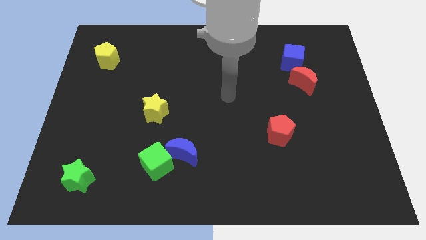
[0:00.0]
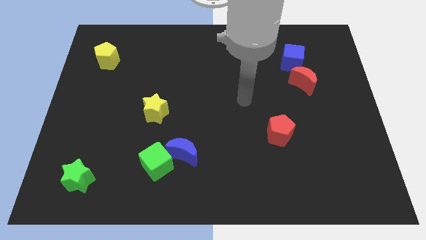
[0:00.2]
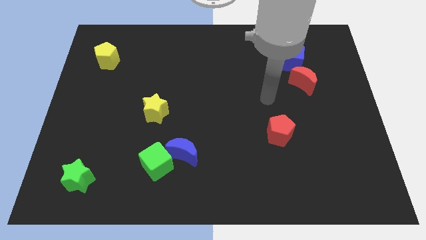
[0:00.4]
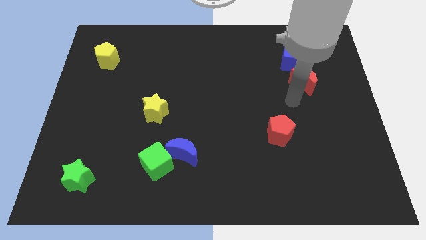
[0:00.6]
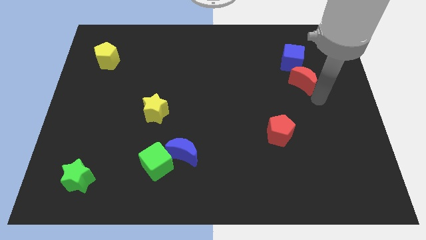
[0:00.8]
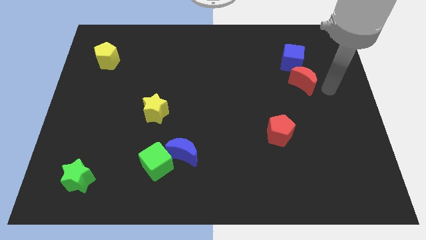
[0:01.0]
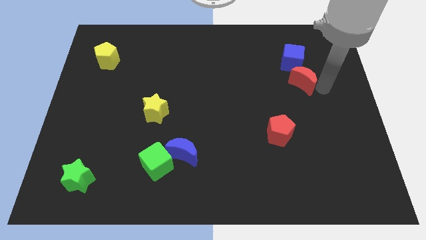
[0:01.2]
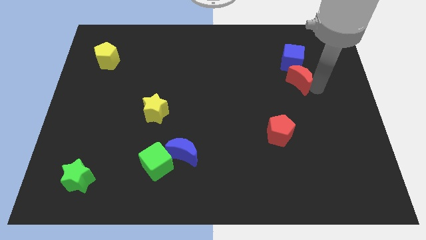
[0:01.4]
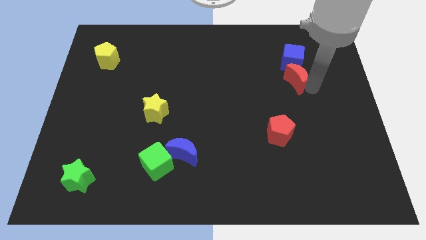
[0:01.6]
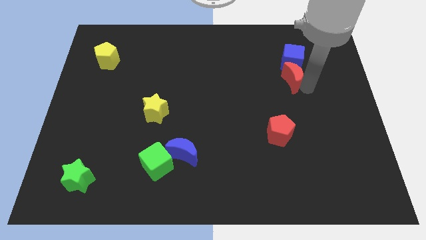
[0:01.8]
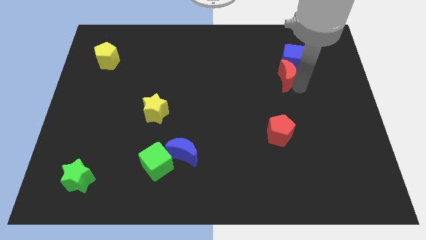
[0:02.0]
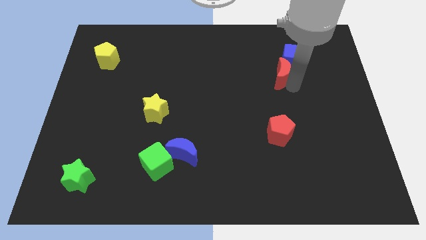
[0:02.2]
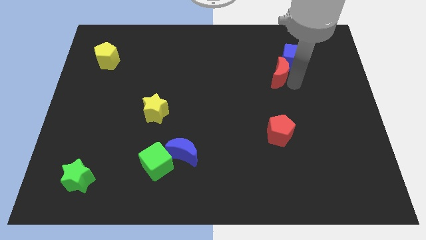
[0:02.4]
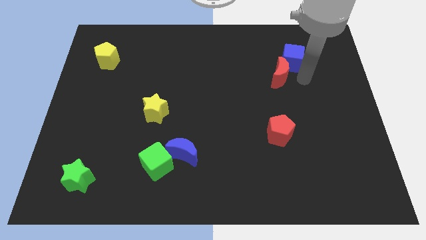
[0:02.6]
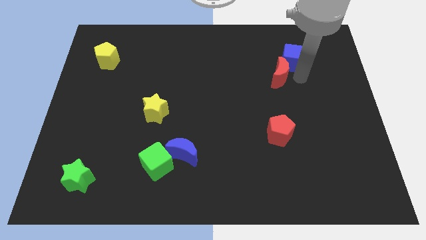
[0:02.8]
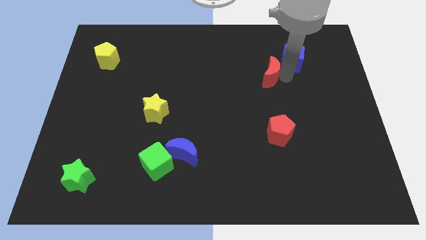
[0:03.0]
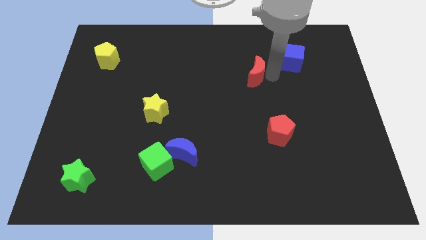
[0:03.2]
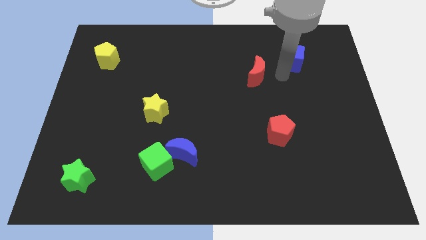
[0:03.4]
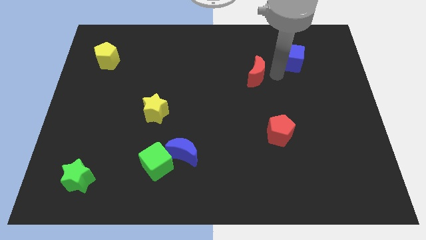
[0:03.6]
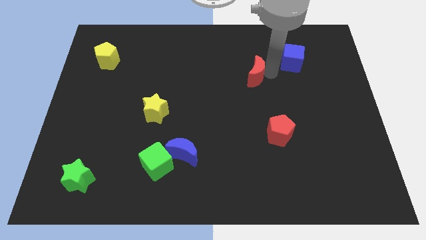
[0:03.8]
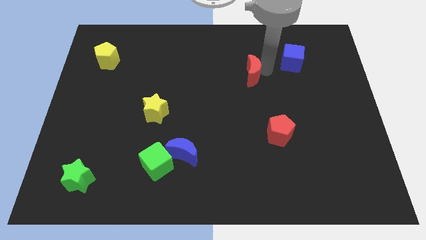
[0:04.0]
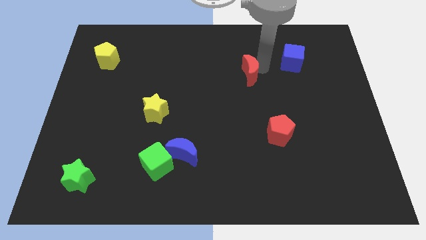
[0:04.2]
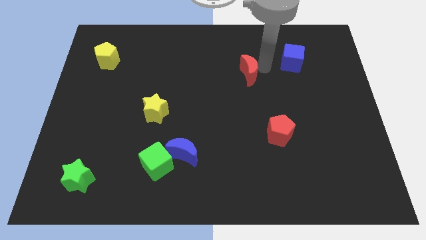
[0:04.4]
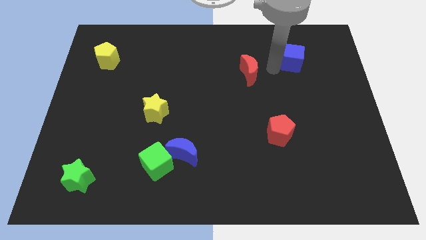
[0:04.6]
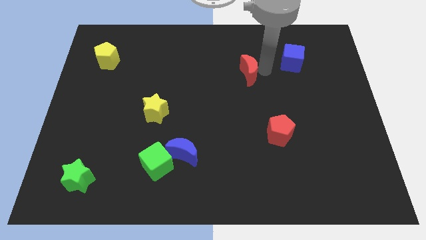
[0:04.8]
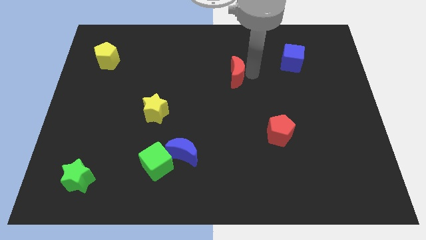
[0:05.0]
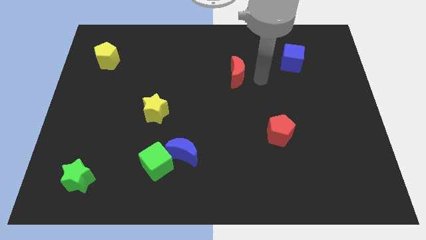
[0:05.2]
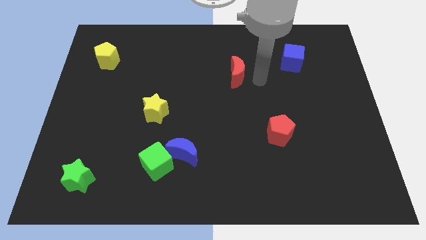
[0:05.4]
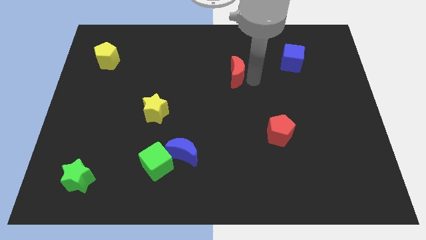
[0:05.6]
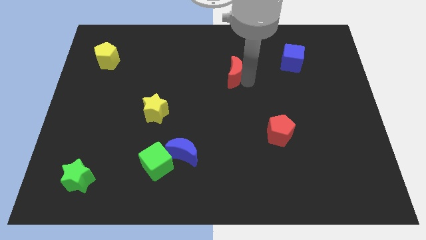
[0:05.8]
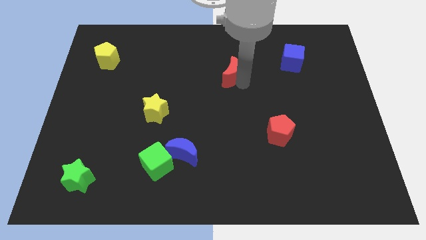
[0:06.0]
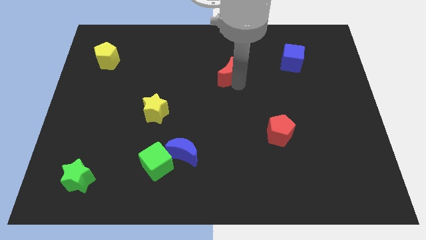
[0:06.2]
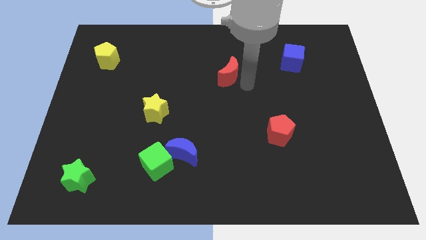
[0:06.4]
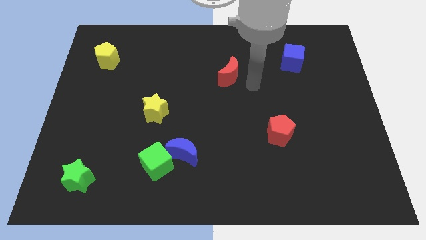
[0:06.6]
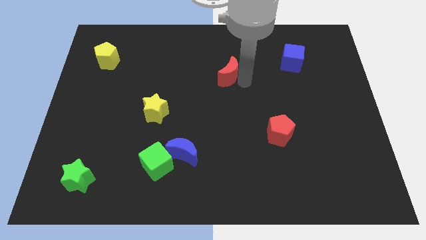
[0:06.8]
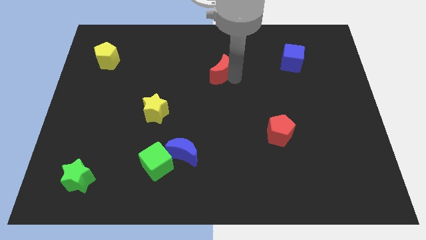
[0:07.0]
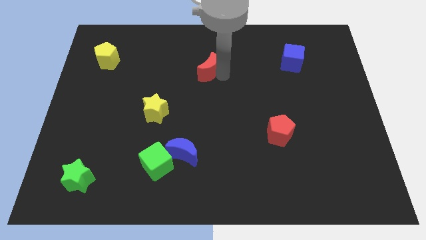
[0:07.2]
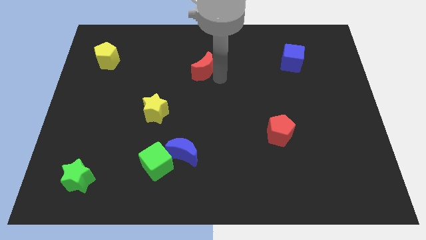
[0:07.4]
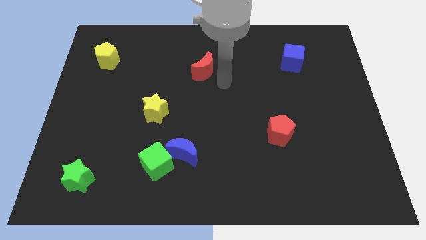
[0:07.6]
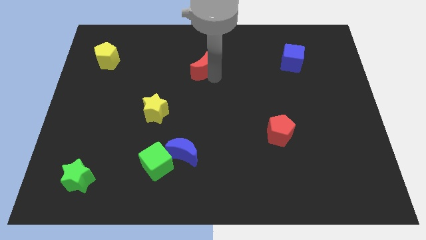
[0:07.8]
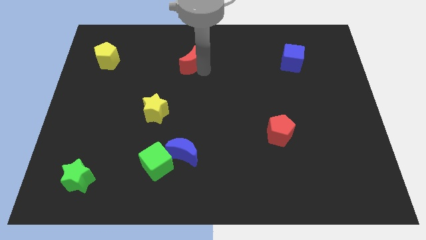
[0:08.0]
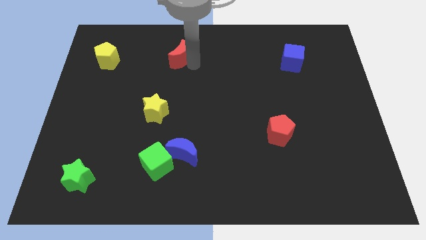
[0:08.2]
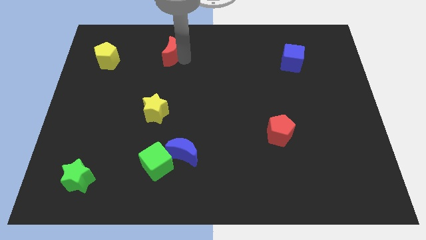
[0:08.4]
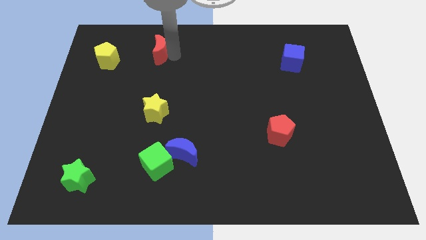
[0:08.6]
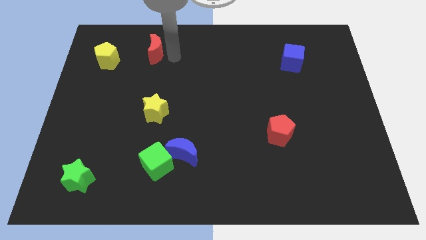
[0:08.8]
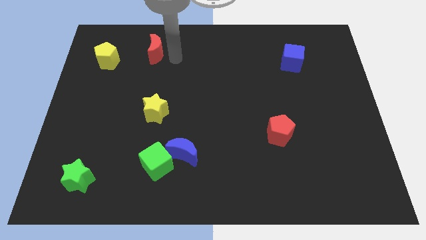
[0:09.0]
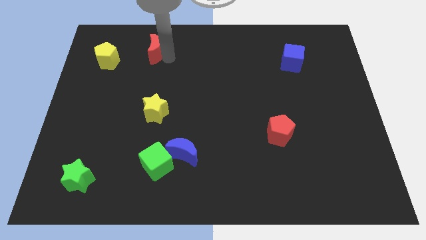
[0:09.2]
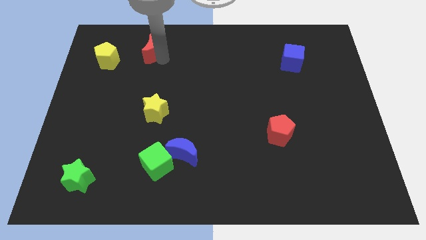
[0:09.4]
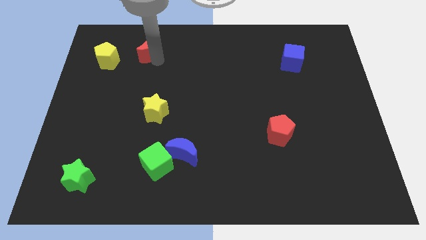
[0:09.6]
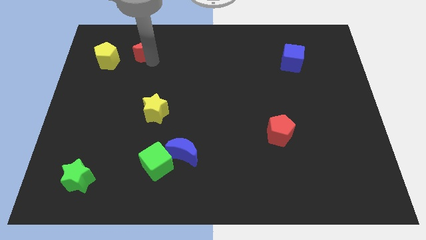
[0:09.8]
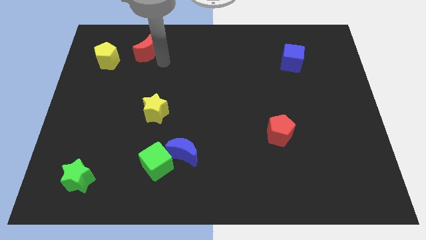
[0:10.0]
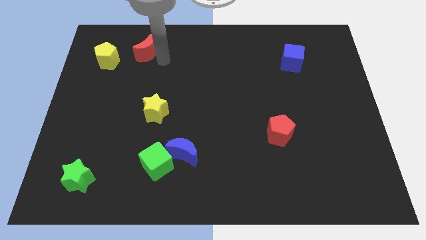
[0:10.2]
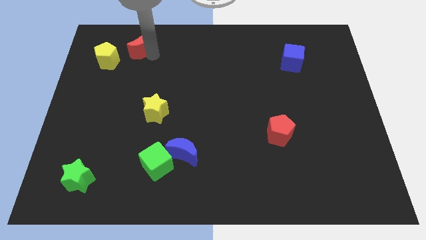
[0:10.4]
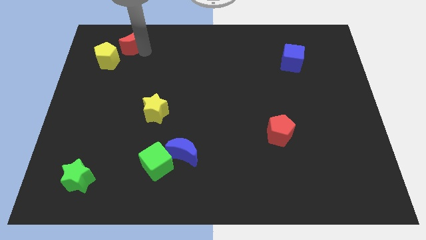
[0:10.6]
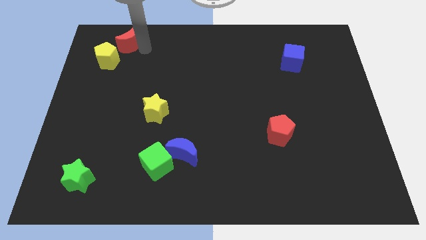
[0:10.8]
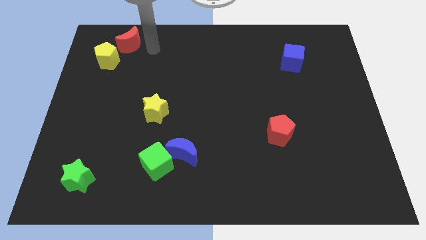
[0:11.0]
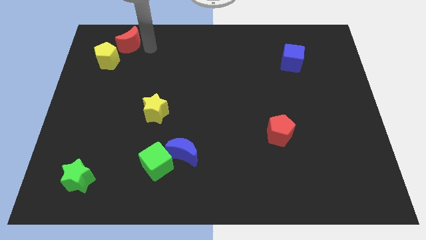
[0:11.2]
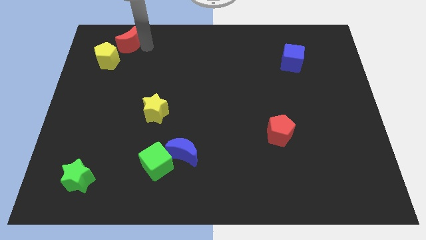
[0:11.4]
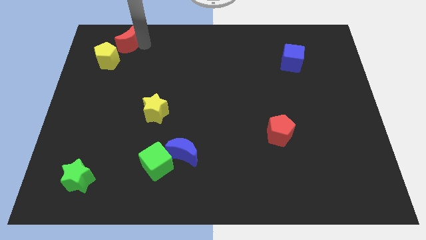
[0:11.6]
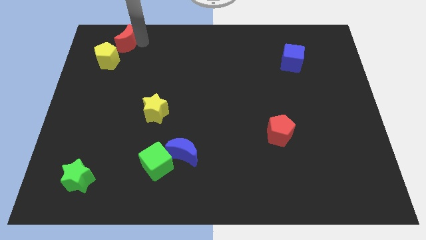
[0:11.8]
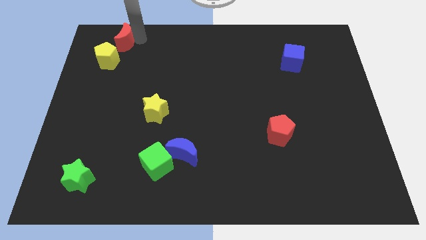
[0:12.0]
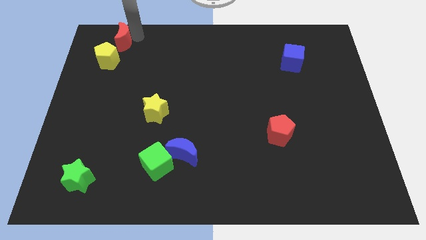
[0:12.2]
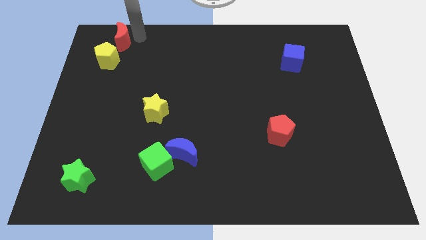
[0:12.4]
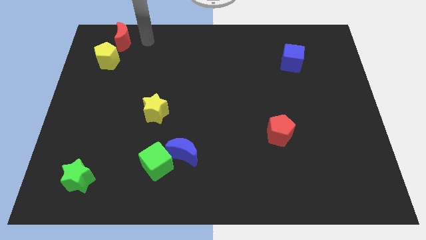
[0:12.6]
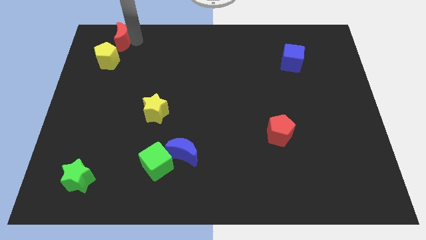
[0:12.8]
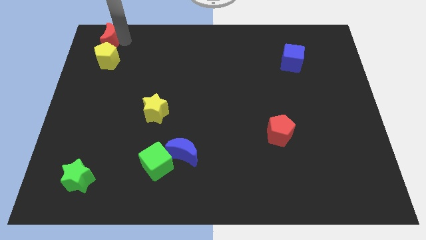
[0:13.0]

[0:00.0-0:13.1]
push the red moon to the top left of the board
